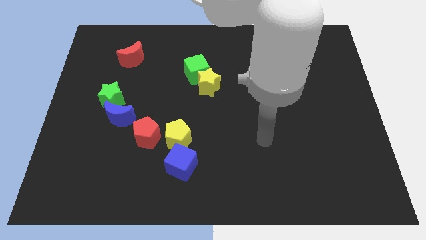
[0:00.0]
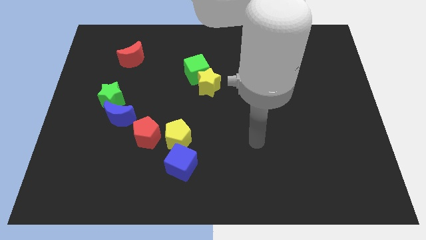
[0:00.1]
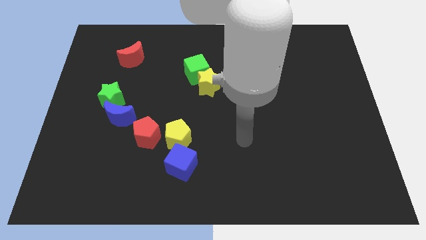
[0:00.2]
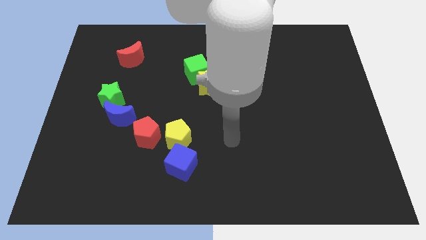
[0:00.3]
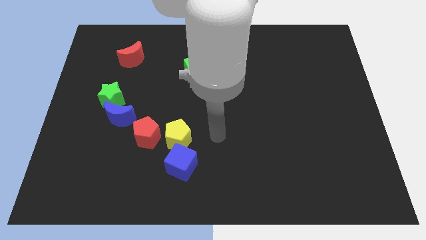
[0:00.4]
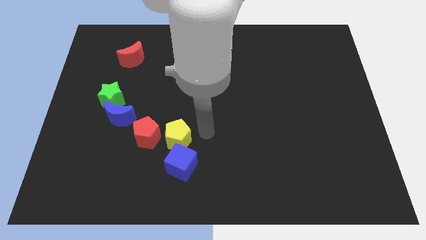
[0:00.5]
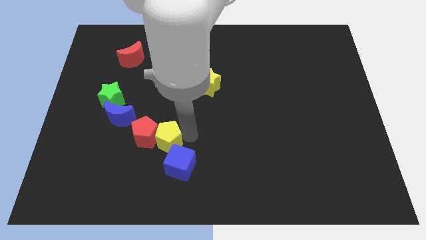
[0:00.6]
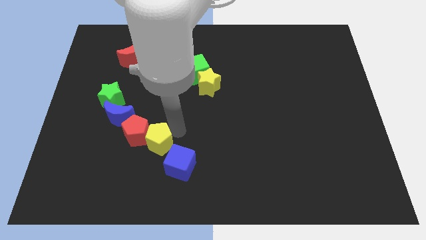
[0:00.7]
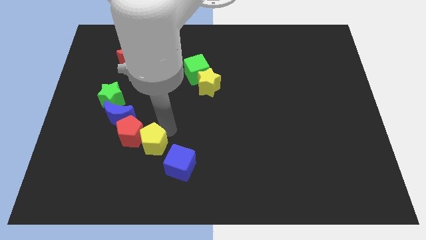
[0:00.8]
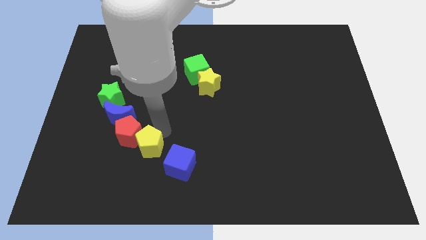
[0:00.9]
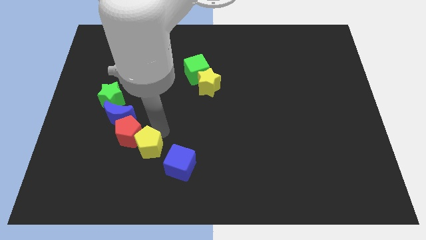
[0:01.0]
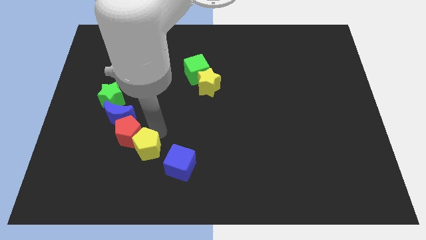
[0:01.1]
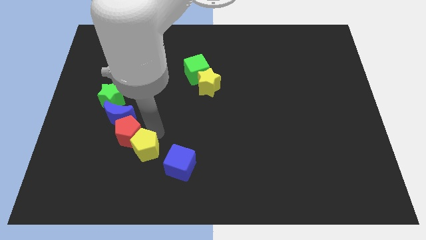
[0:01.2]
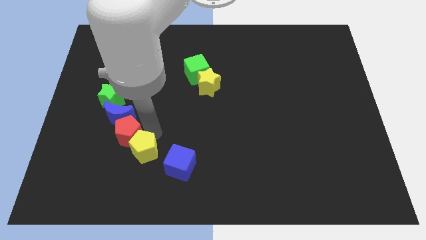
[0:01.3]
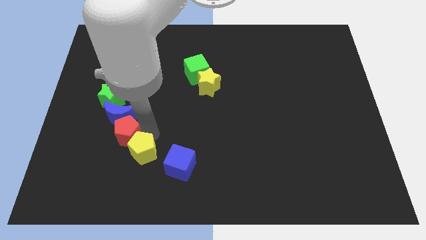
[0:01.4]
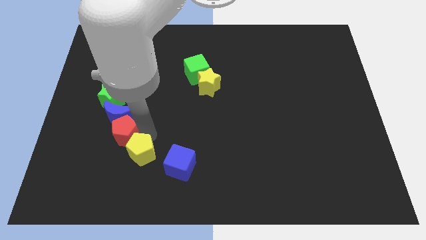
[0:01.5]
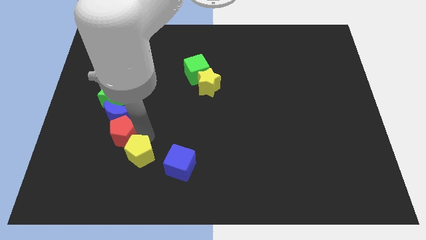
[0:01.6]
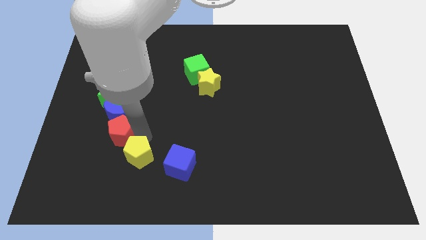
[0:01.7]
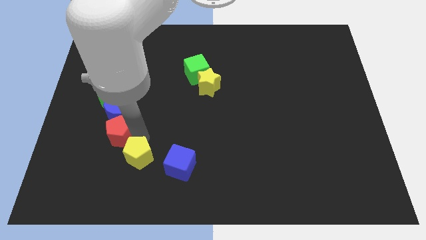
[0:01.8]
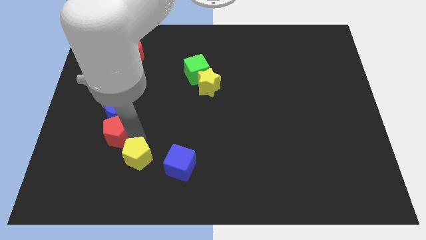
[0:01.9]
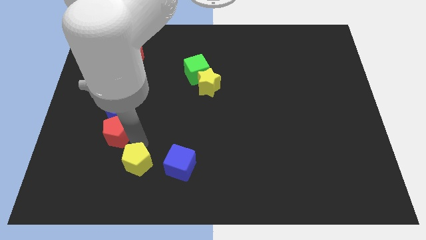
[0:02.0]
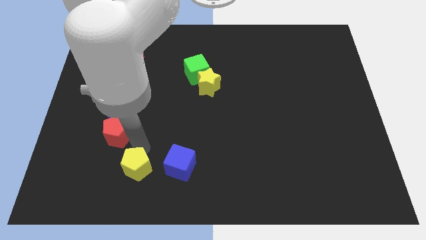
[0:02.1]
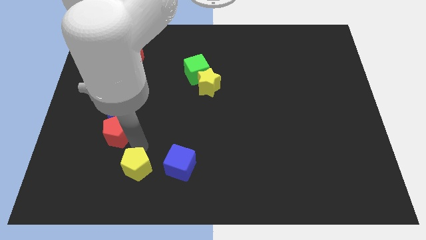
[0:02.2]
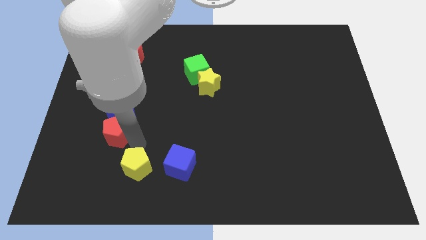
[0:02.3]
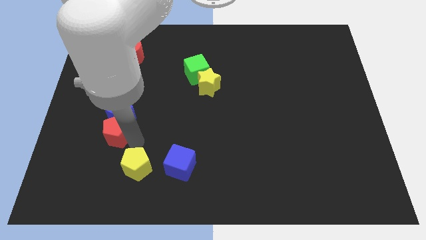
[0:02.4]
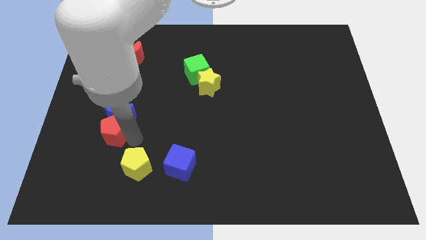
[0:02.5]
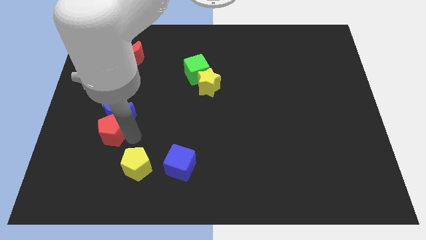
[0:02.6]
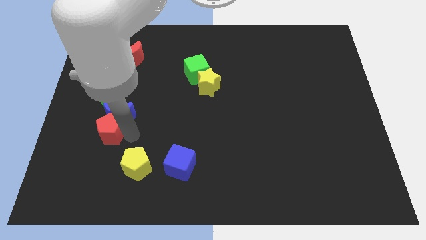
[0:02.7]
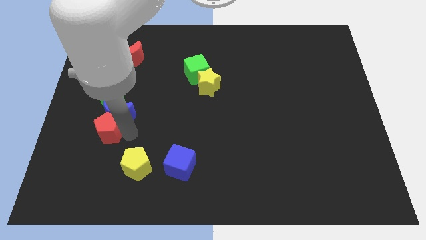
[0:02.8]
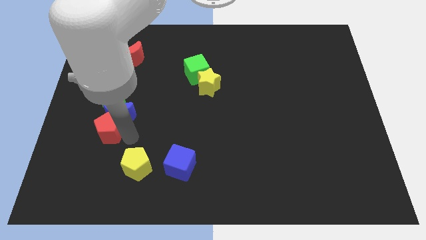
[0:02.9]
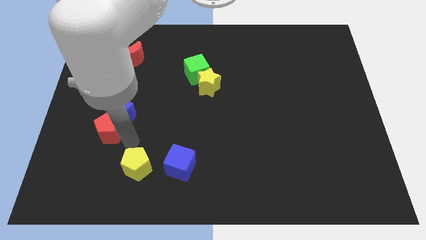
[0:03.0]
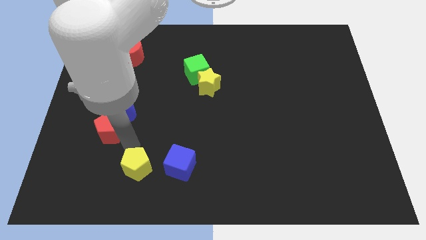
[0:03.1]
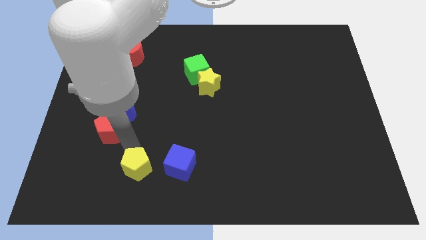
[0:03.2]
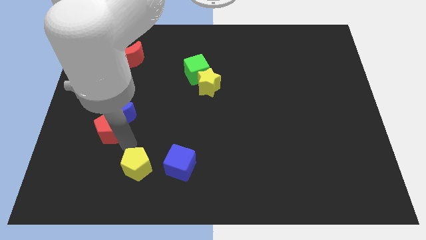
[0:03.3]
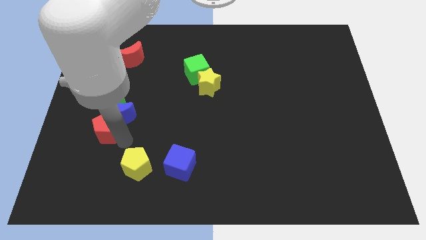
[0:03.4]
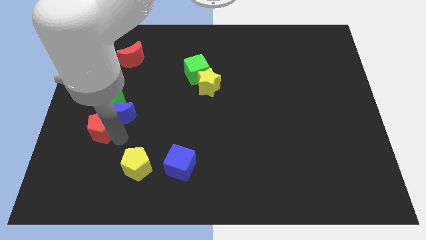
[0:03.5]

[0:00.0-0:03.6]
push the red pentagon slightly diagonally up and to the left

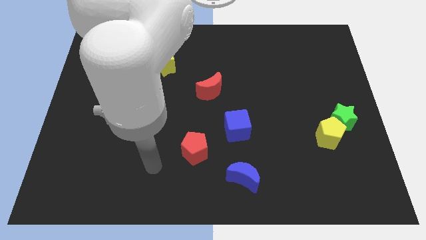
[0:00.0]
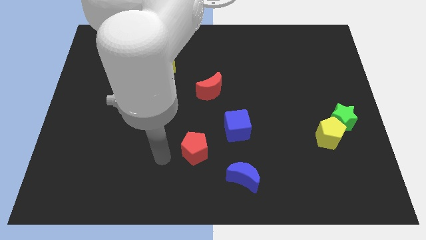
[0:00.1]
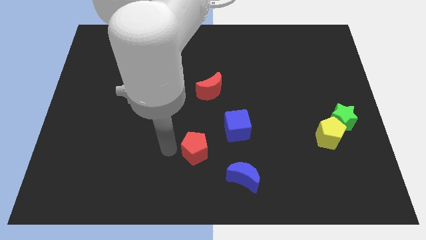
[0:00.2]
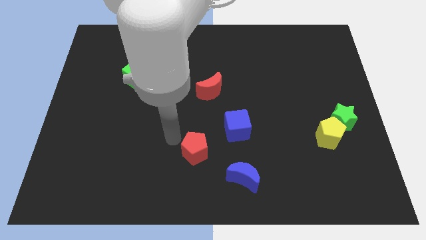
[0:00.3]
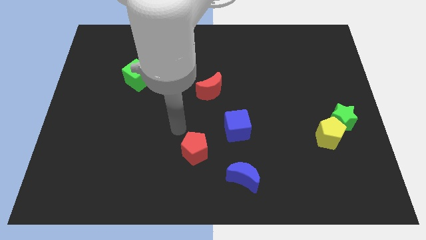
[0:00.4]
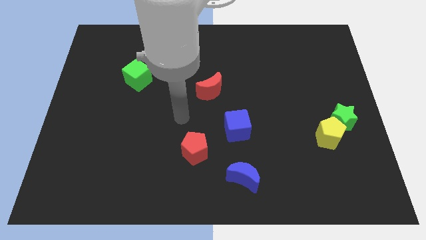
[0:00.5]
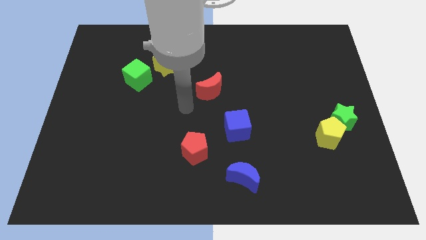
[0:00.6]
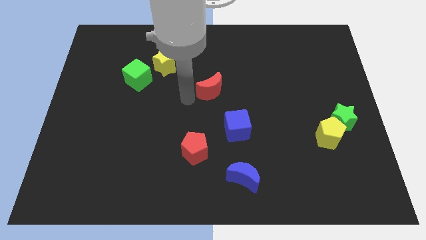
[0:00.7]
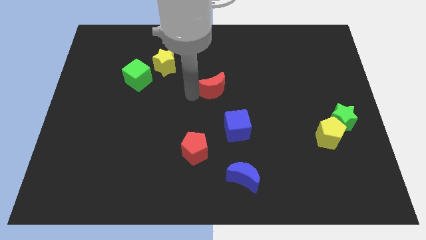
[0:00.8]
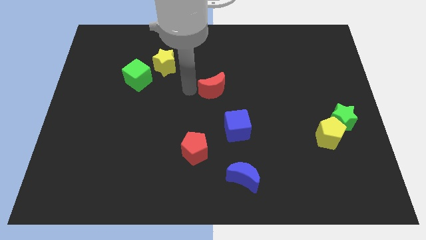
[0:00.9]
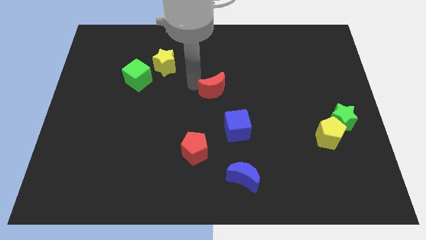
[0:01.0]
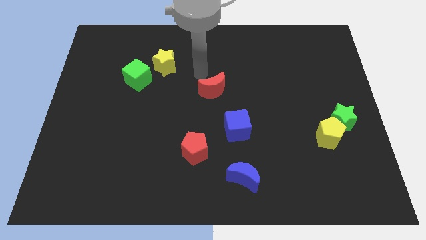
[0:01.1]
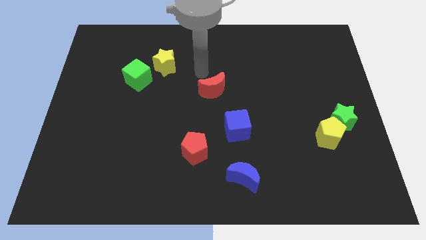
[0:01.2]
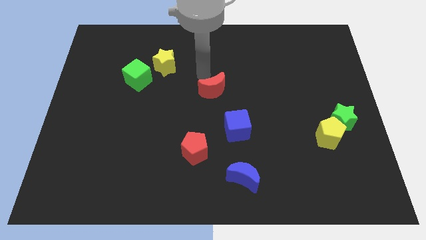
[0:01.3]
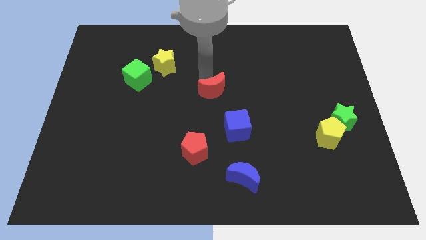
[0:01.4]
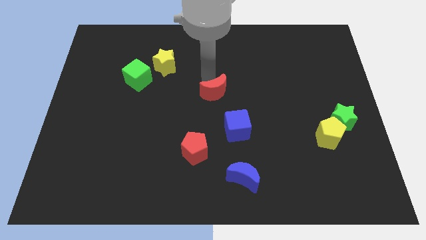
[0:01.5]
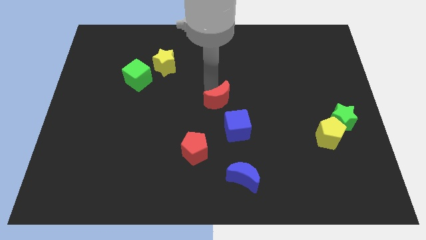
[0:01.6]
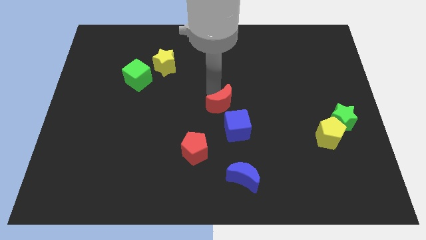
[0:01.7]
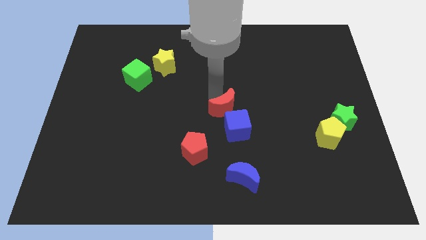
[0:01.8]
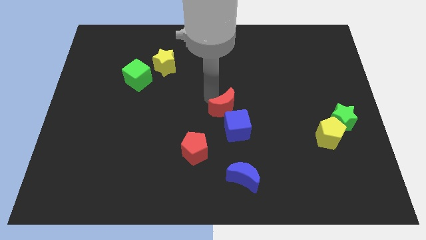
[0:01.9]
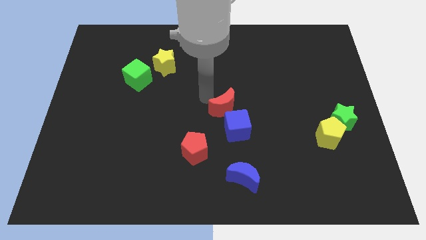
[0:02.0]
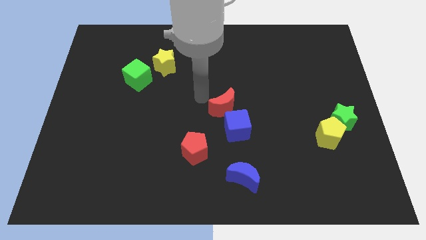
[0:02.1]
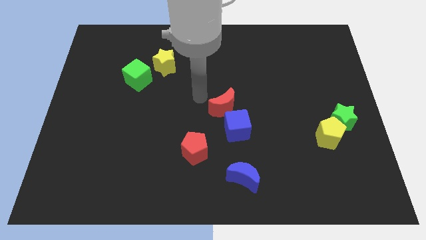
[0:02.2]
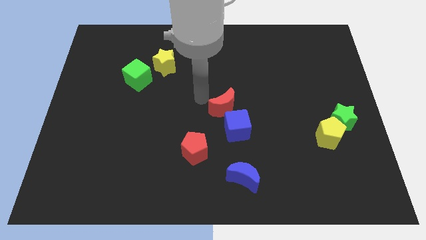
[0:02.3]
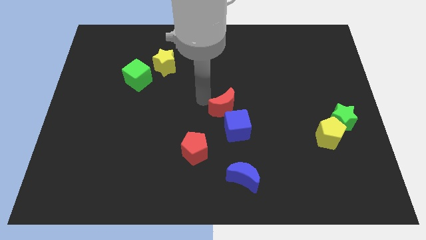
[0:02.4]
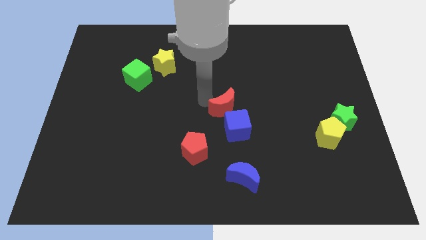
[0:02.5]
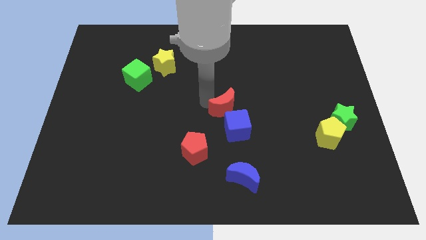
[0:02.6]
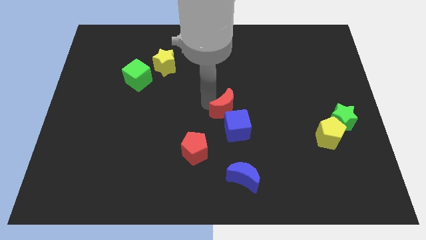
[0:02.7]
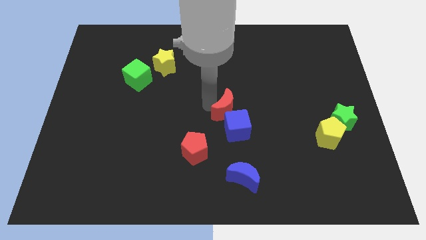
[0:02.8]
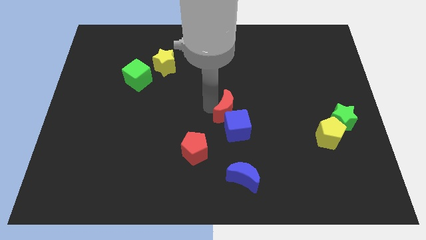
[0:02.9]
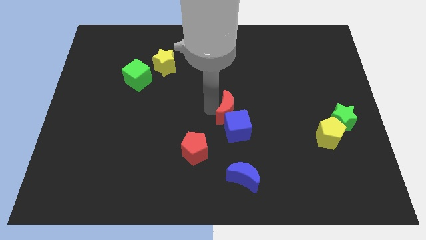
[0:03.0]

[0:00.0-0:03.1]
slide the red moon slightly down and to the right

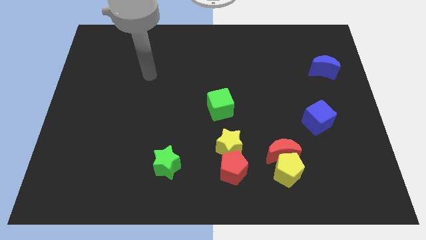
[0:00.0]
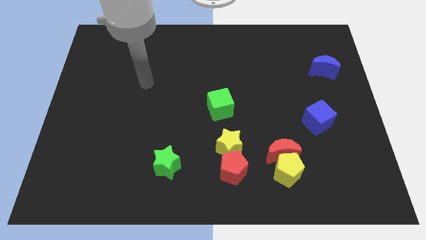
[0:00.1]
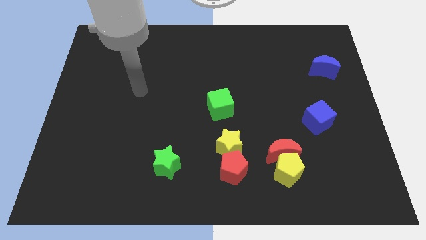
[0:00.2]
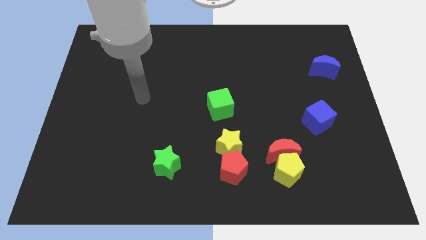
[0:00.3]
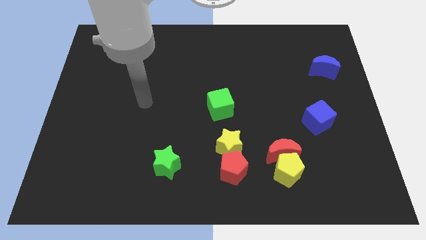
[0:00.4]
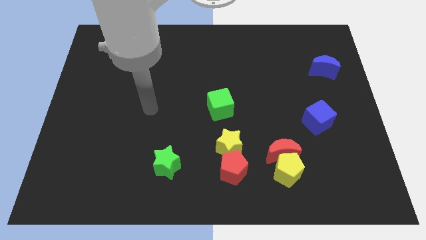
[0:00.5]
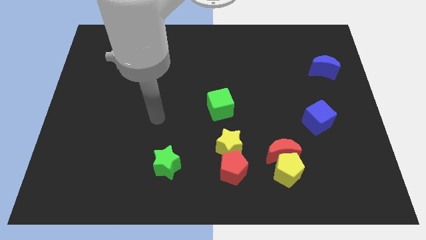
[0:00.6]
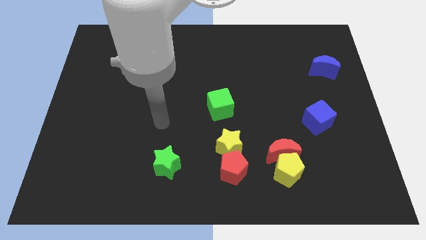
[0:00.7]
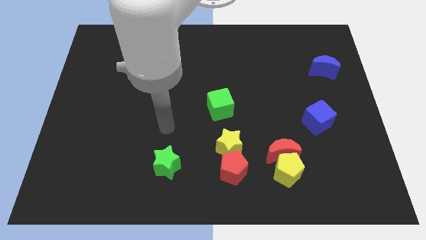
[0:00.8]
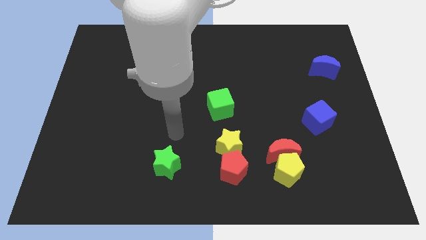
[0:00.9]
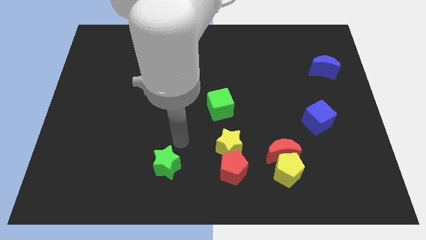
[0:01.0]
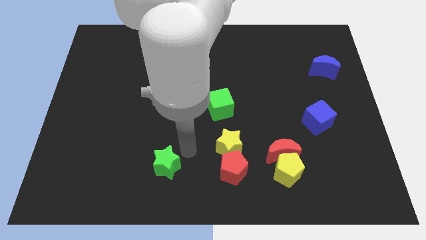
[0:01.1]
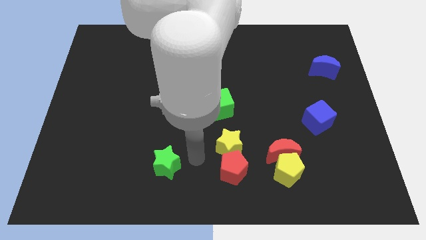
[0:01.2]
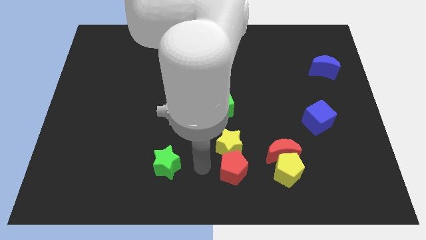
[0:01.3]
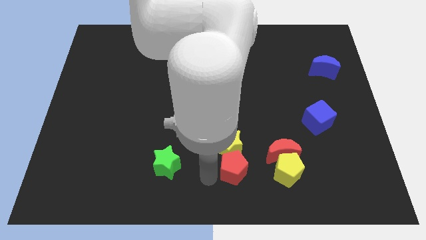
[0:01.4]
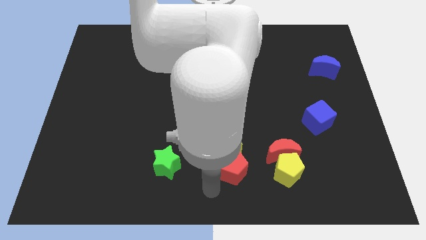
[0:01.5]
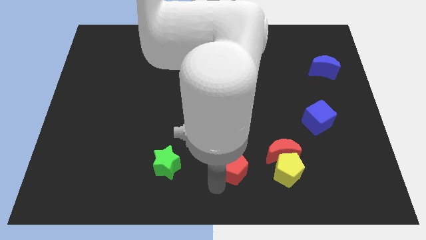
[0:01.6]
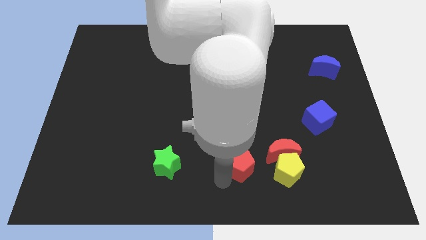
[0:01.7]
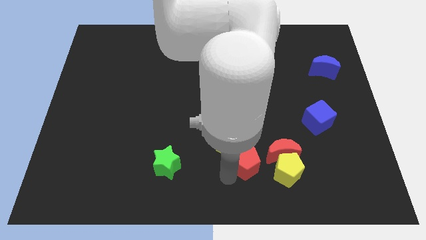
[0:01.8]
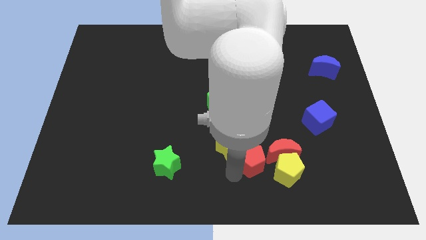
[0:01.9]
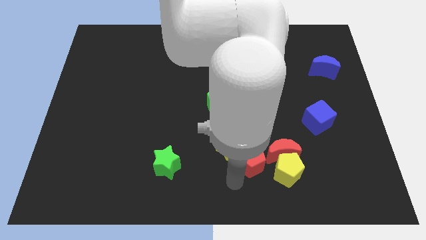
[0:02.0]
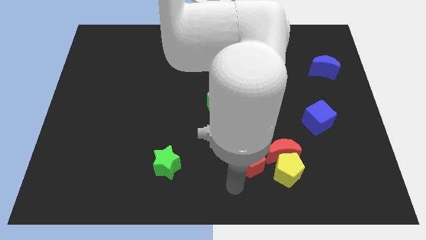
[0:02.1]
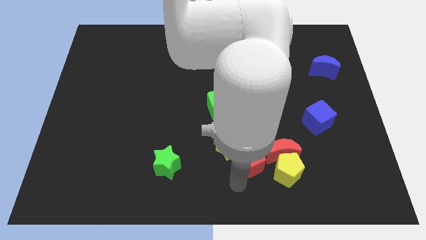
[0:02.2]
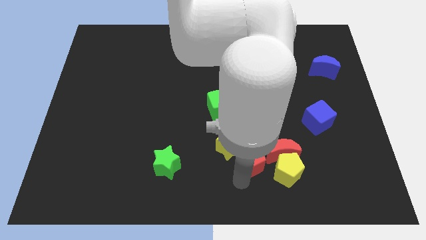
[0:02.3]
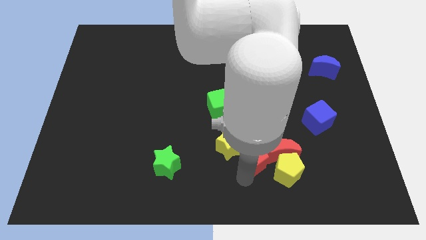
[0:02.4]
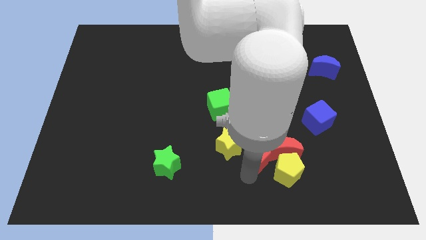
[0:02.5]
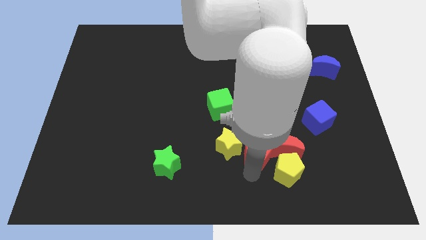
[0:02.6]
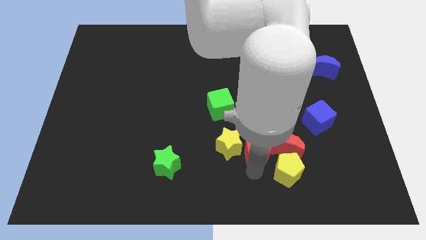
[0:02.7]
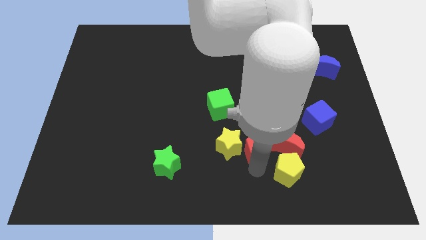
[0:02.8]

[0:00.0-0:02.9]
slide the red pentagon upwards and then to the right a bit
